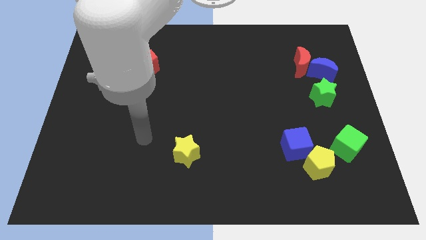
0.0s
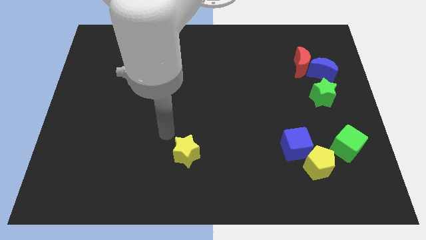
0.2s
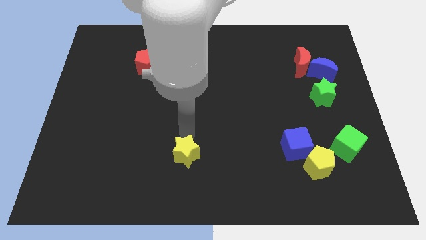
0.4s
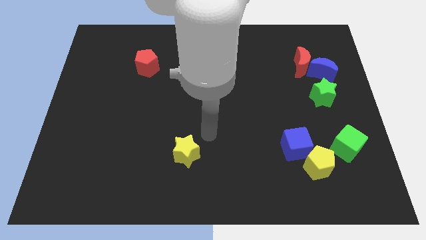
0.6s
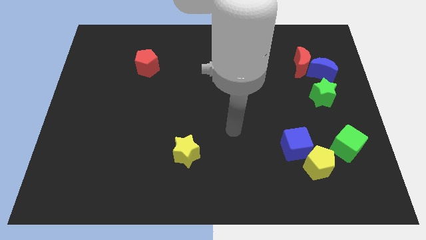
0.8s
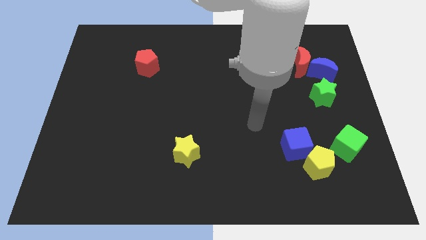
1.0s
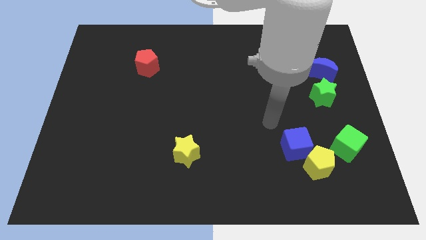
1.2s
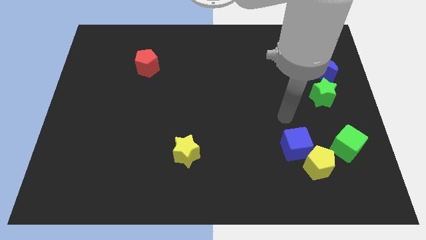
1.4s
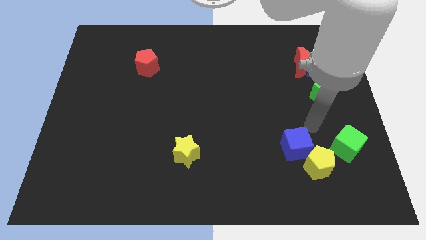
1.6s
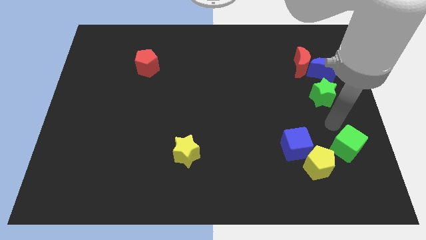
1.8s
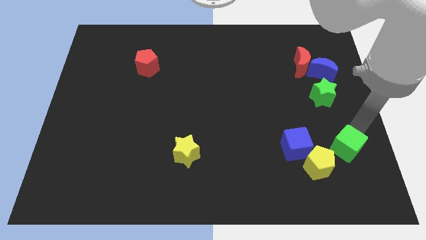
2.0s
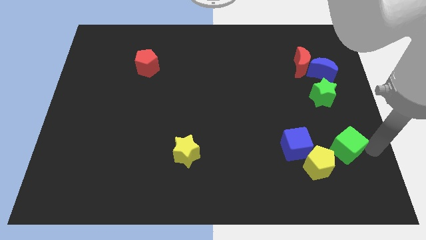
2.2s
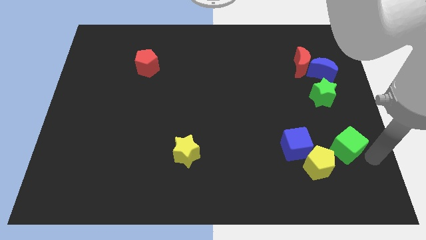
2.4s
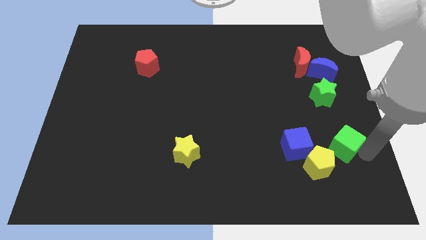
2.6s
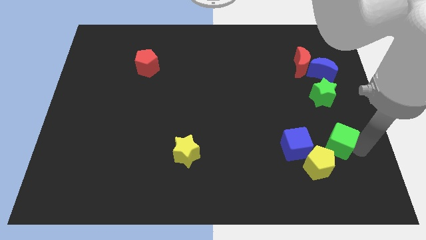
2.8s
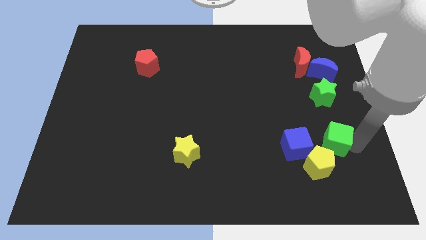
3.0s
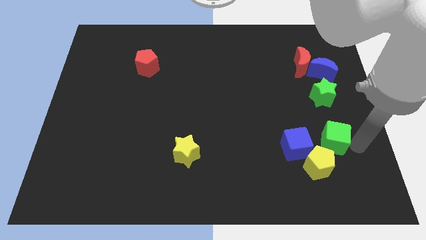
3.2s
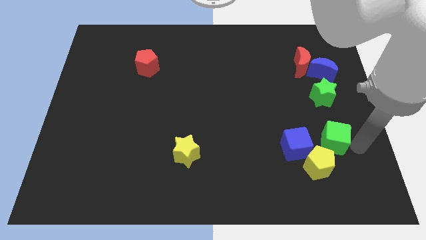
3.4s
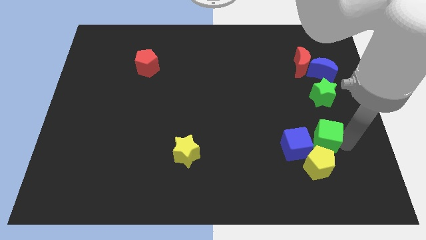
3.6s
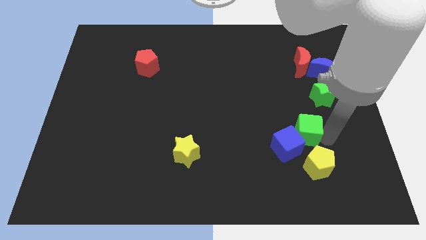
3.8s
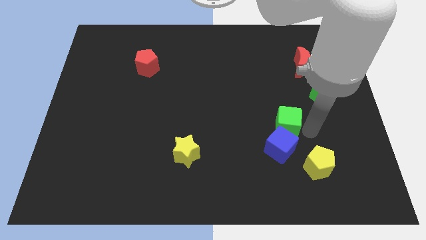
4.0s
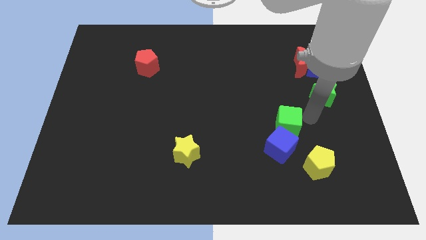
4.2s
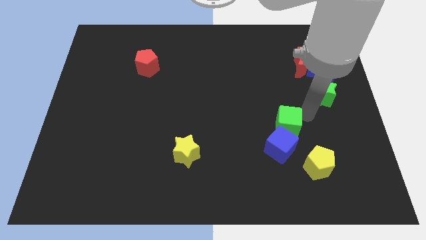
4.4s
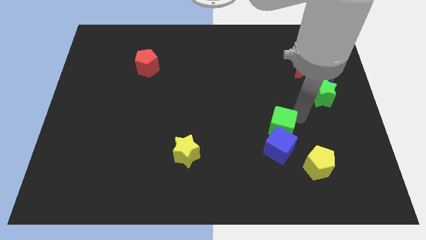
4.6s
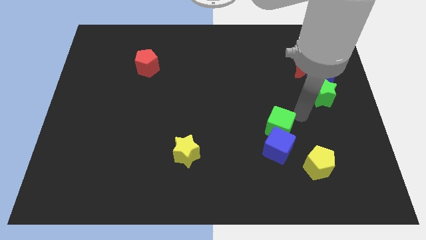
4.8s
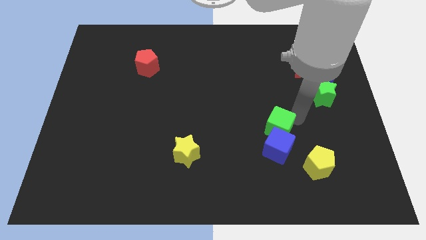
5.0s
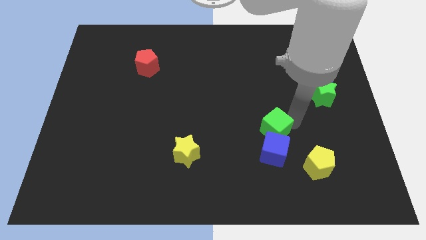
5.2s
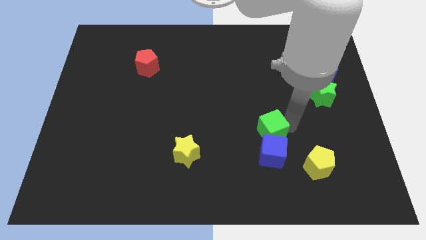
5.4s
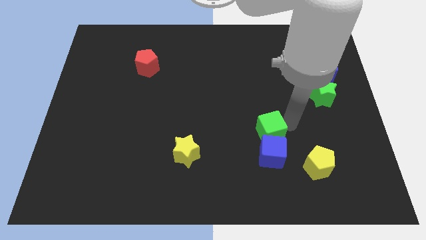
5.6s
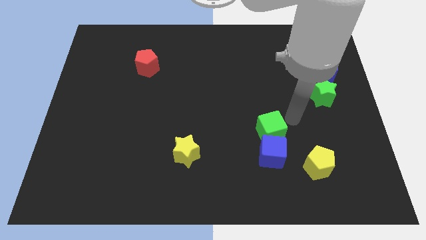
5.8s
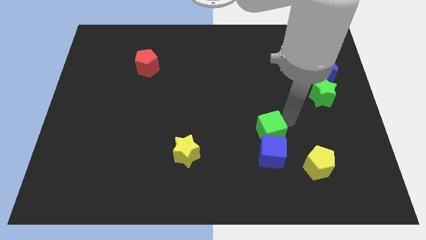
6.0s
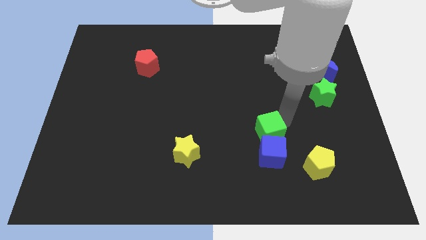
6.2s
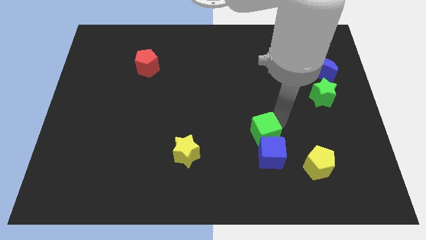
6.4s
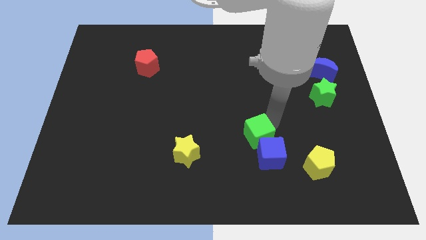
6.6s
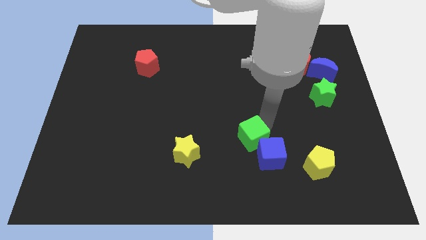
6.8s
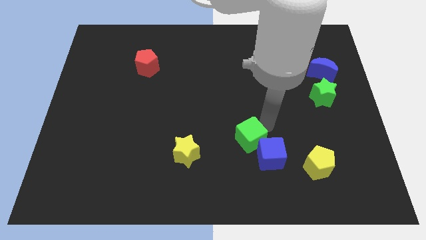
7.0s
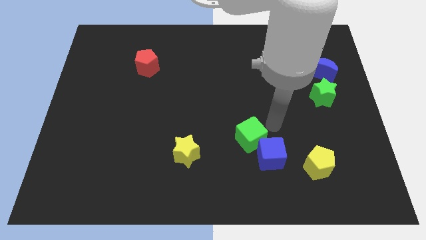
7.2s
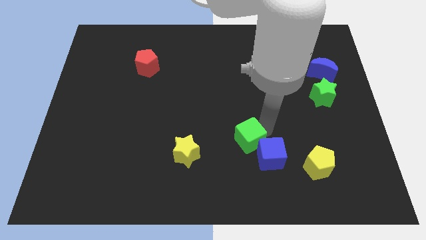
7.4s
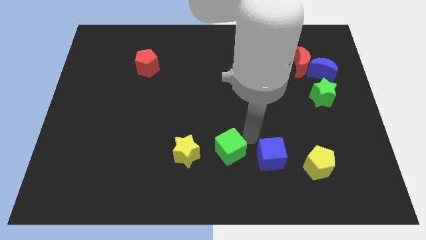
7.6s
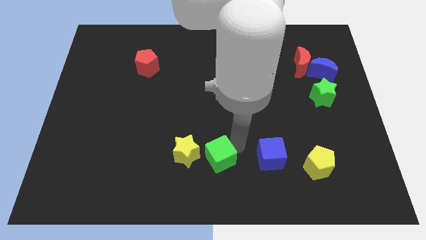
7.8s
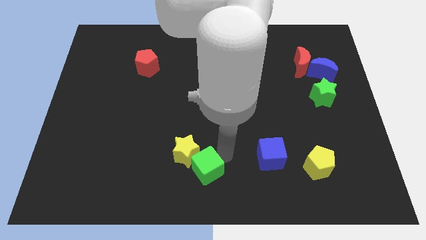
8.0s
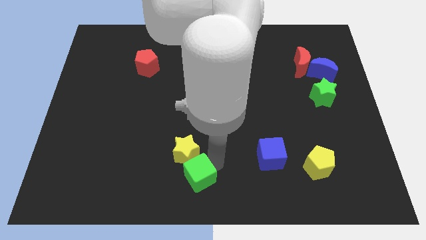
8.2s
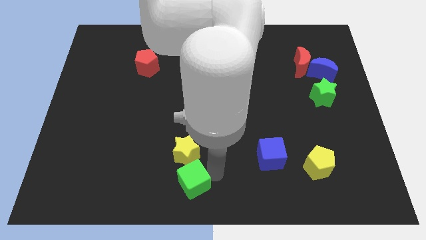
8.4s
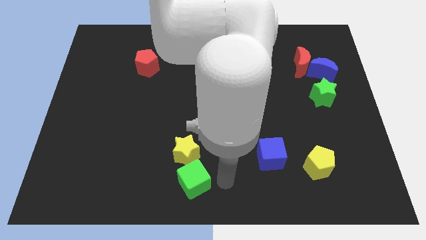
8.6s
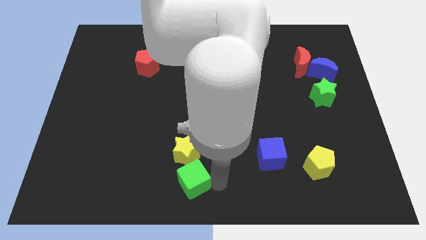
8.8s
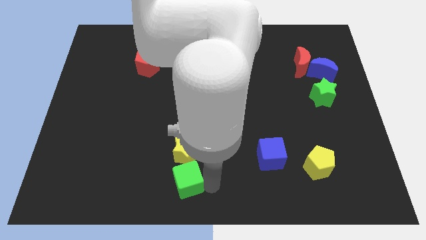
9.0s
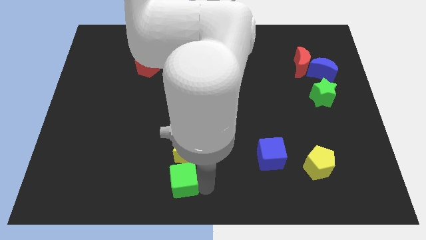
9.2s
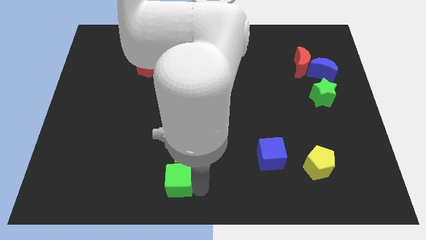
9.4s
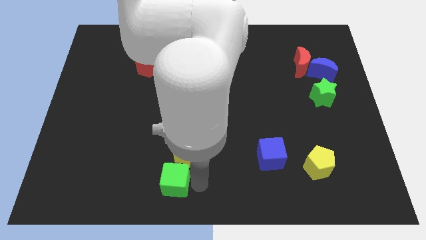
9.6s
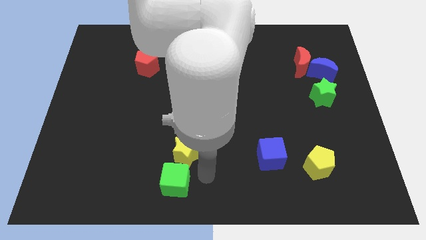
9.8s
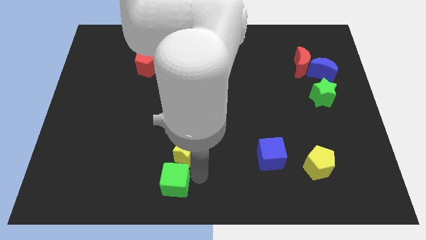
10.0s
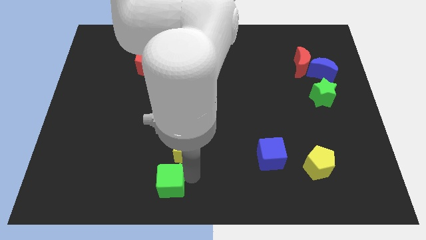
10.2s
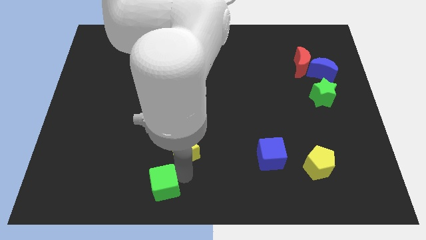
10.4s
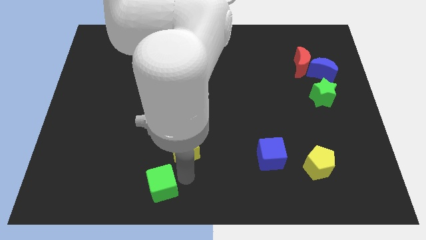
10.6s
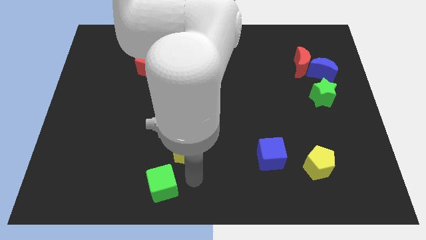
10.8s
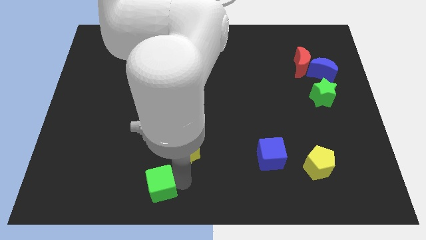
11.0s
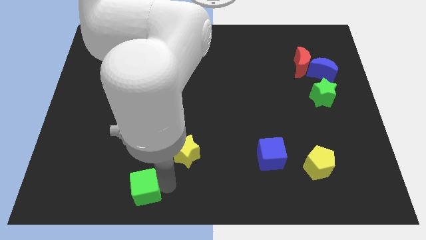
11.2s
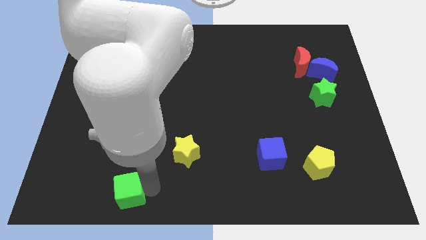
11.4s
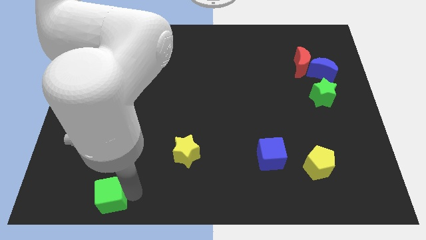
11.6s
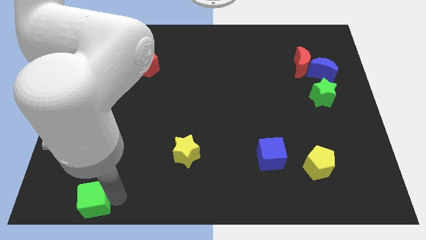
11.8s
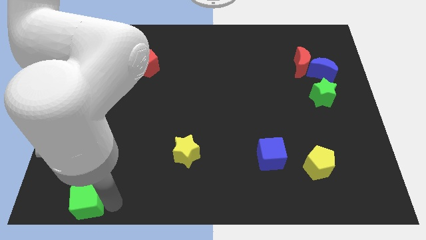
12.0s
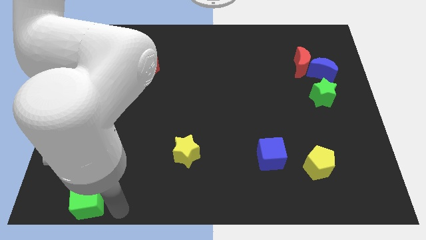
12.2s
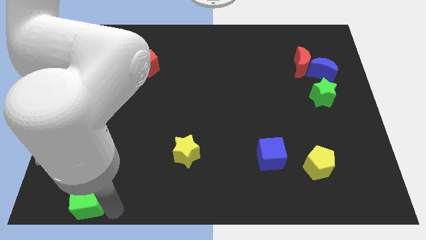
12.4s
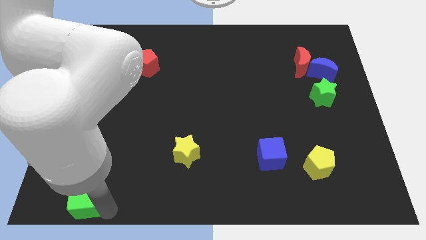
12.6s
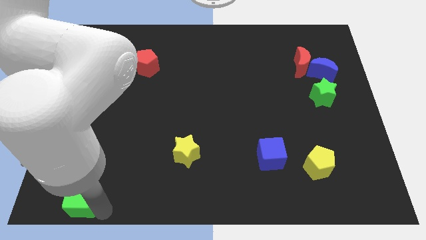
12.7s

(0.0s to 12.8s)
put the green cube to the lower left corner
